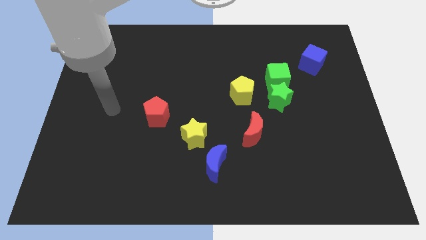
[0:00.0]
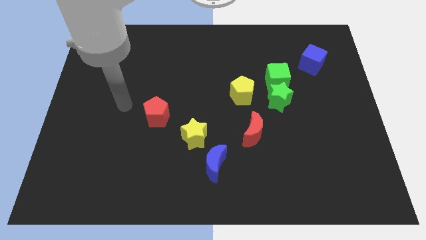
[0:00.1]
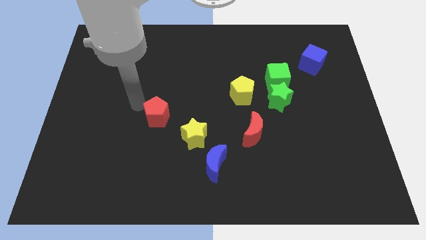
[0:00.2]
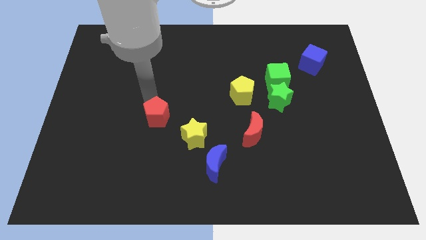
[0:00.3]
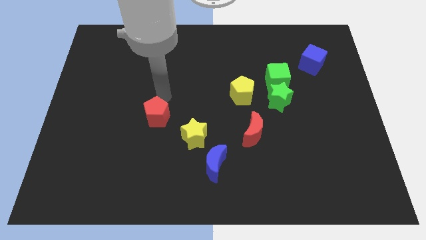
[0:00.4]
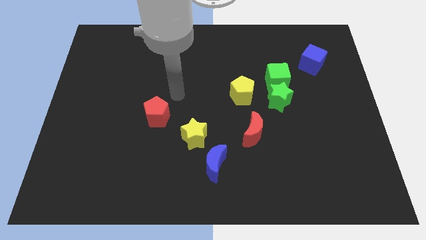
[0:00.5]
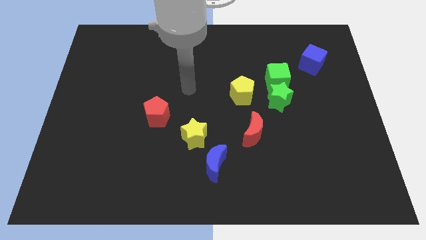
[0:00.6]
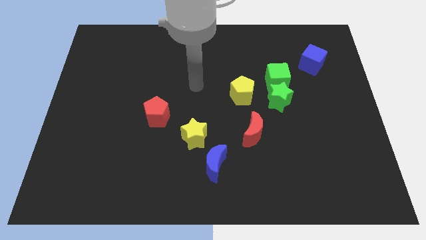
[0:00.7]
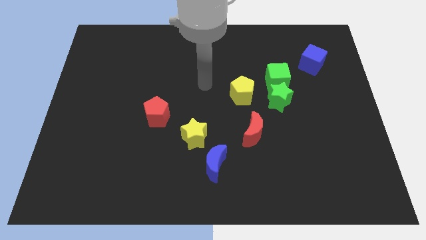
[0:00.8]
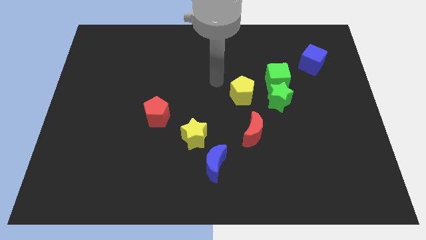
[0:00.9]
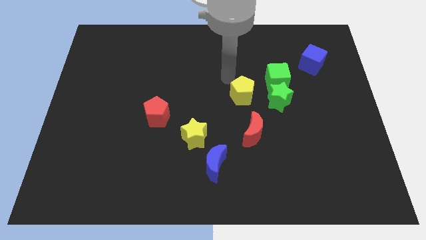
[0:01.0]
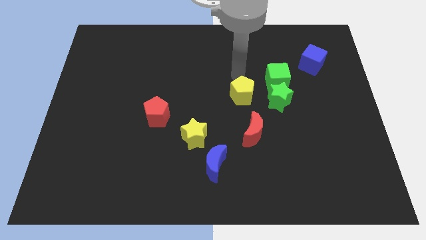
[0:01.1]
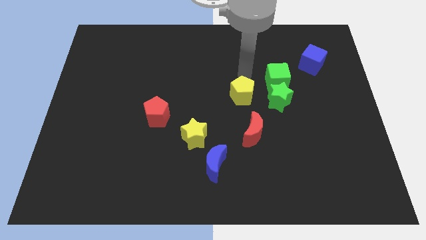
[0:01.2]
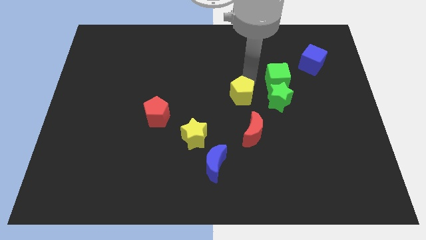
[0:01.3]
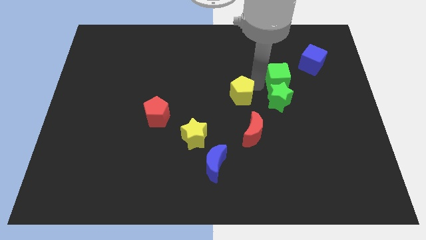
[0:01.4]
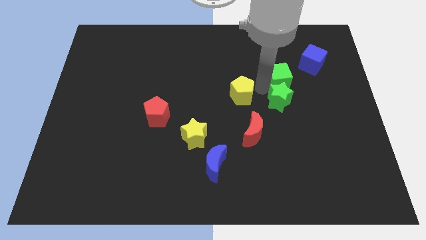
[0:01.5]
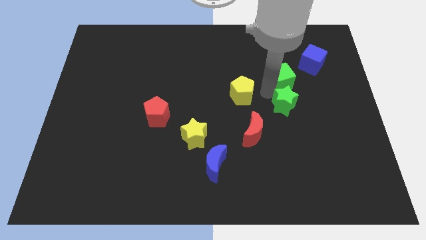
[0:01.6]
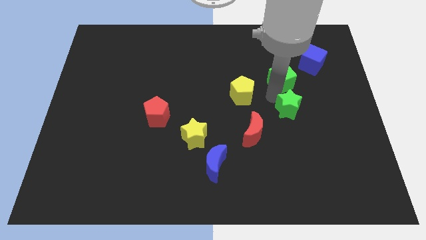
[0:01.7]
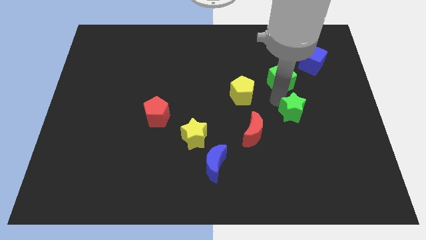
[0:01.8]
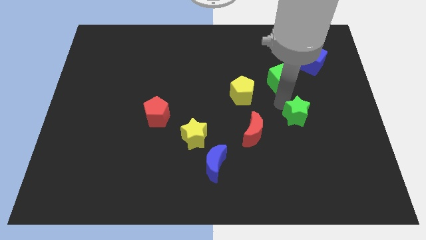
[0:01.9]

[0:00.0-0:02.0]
pull the green star apart from the green cube and yellow pentagon

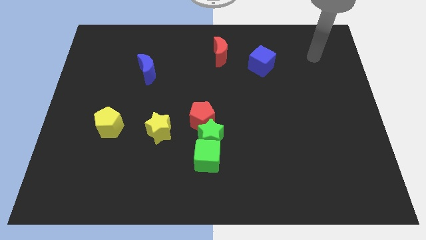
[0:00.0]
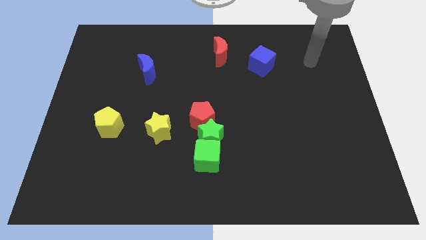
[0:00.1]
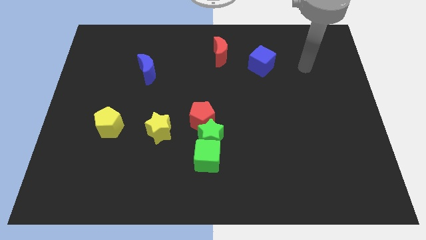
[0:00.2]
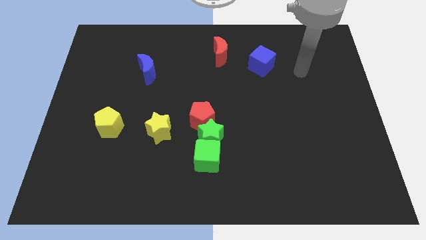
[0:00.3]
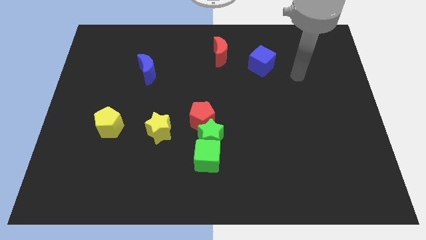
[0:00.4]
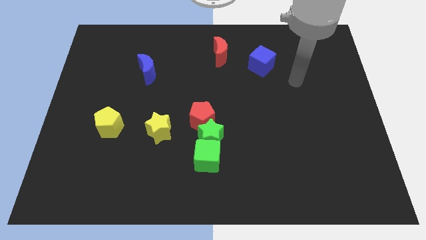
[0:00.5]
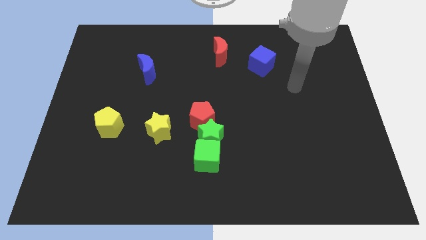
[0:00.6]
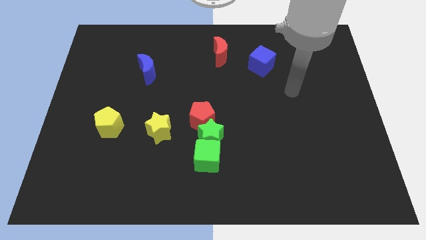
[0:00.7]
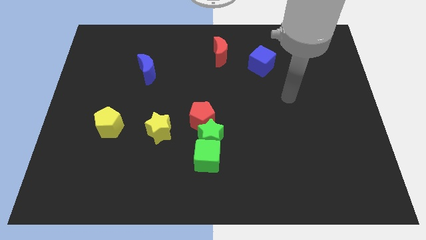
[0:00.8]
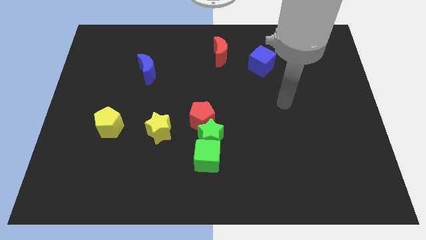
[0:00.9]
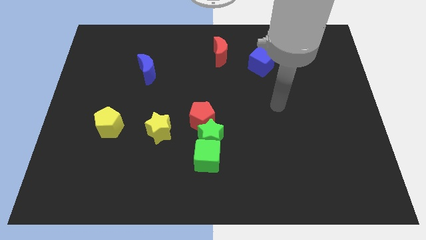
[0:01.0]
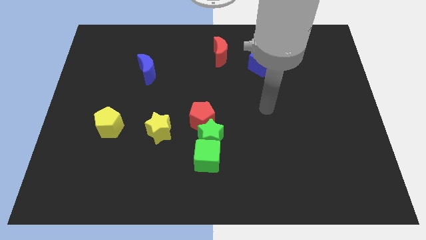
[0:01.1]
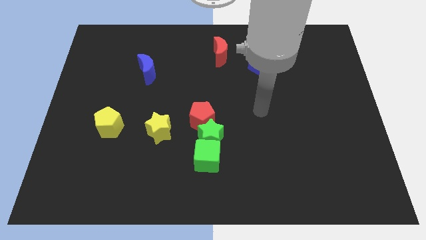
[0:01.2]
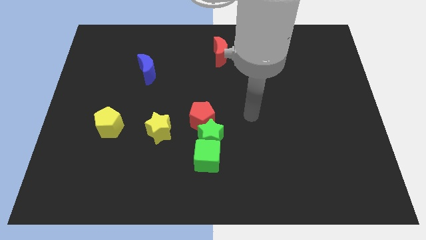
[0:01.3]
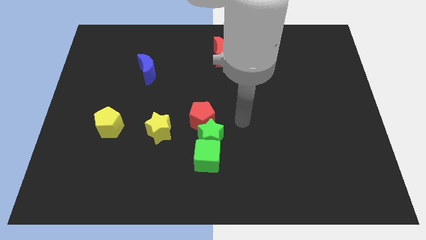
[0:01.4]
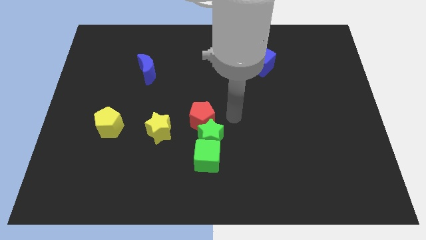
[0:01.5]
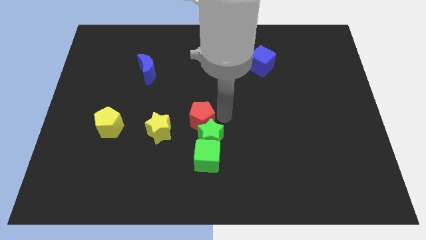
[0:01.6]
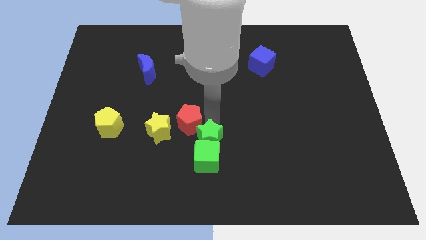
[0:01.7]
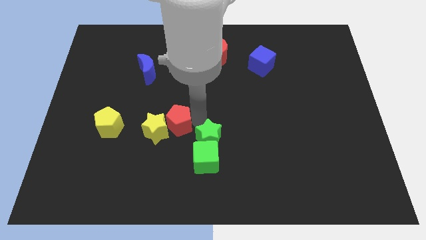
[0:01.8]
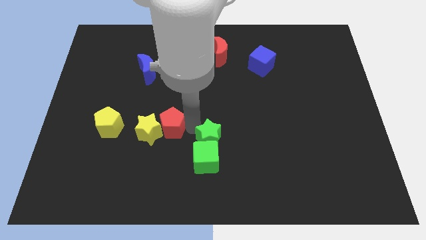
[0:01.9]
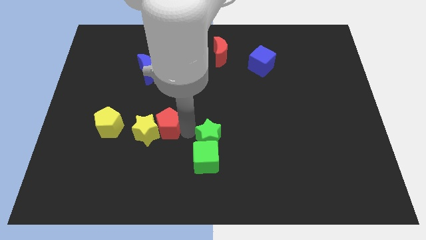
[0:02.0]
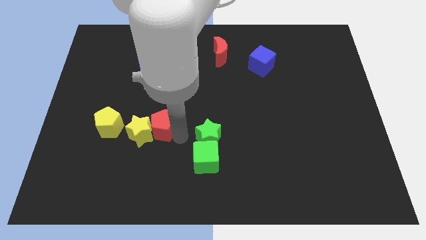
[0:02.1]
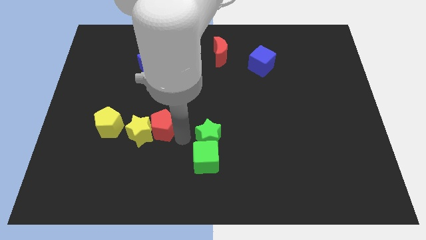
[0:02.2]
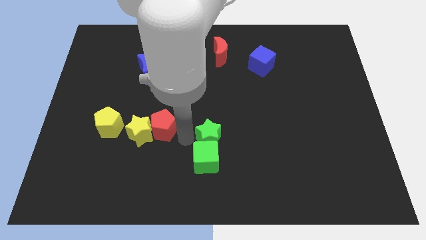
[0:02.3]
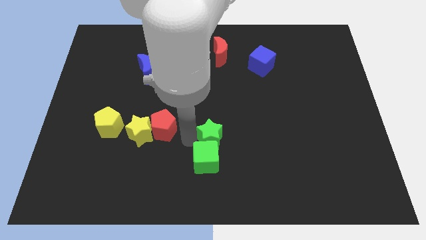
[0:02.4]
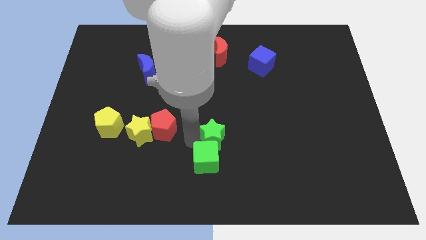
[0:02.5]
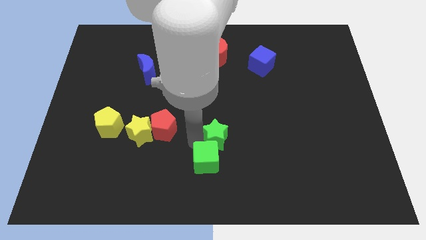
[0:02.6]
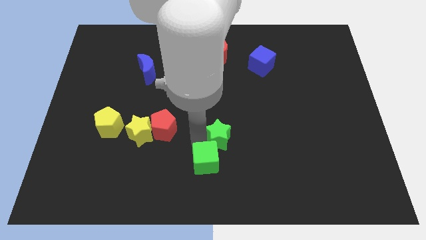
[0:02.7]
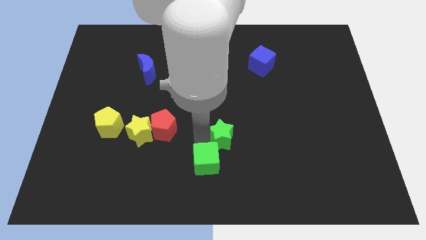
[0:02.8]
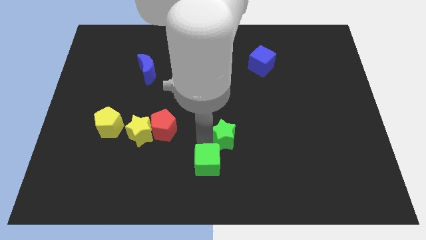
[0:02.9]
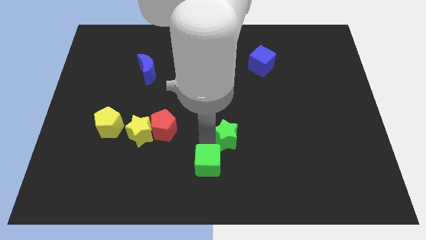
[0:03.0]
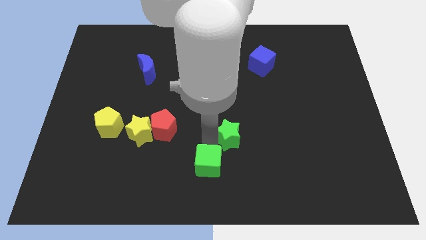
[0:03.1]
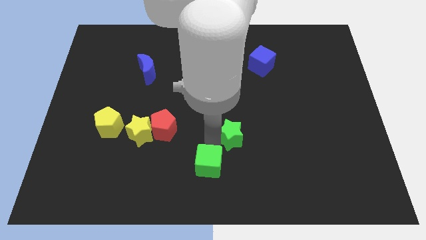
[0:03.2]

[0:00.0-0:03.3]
separate the green star from the green cube and red pentagon

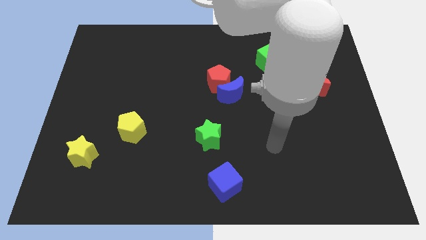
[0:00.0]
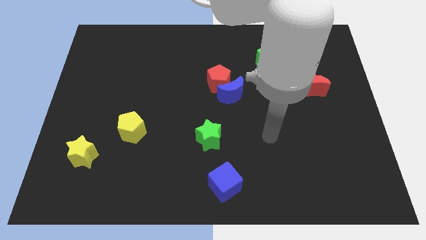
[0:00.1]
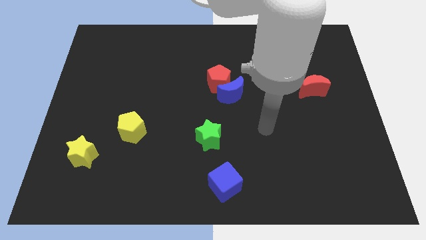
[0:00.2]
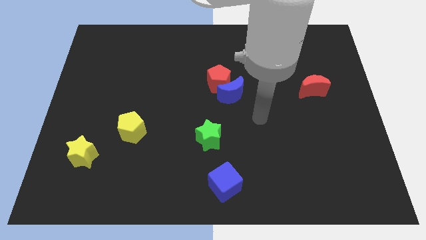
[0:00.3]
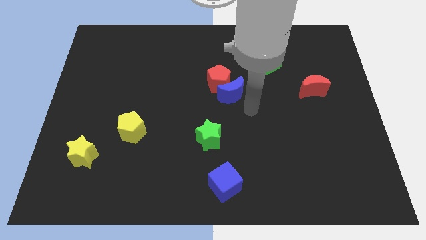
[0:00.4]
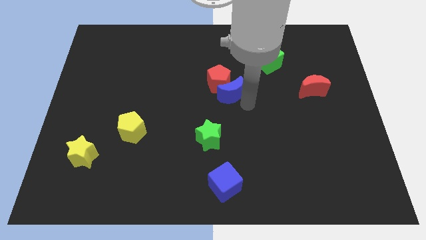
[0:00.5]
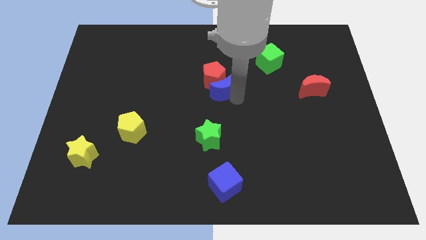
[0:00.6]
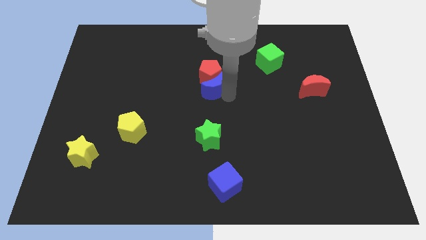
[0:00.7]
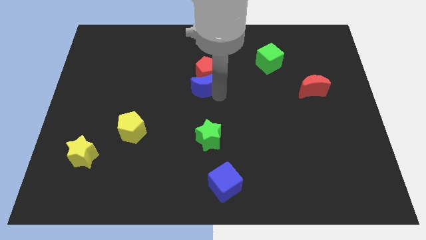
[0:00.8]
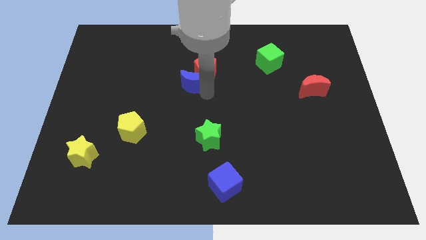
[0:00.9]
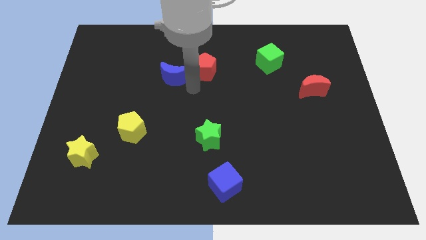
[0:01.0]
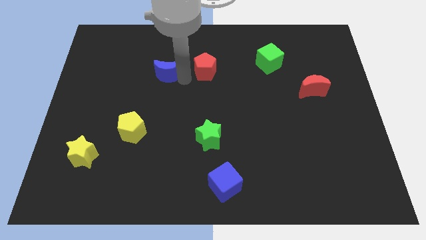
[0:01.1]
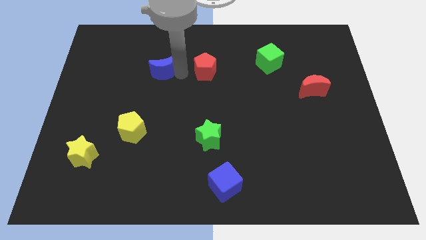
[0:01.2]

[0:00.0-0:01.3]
separate the red pentagon from the blue moon

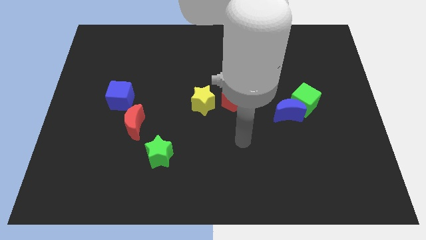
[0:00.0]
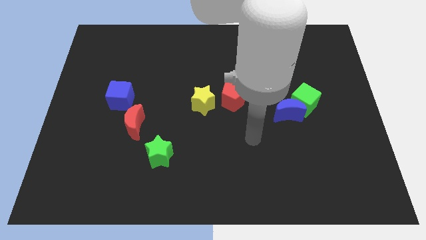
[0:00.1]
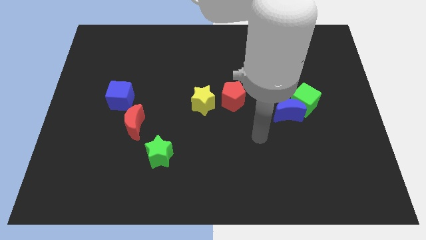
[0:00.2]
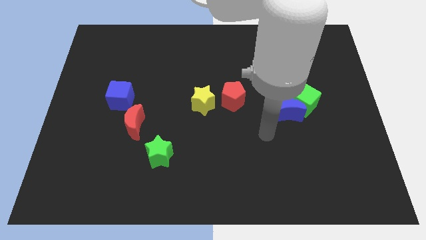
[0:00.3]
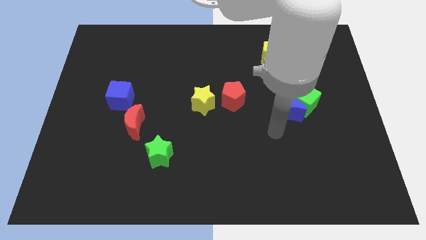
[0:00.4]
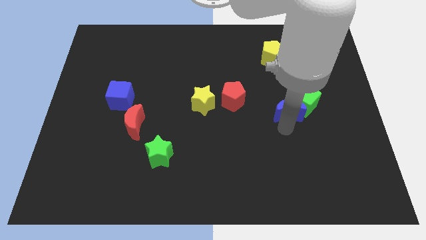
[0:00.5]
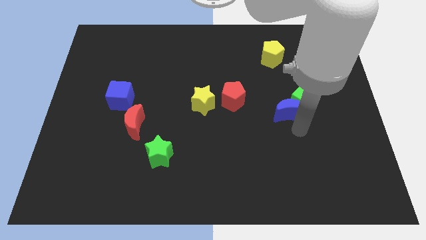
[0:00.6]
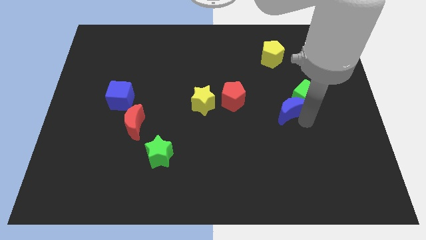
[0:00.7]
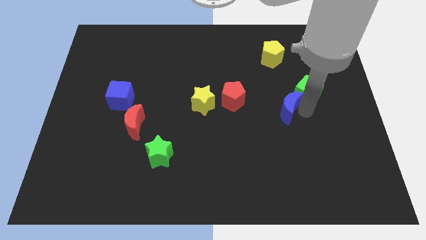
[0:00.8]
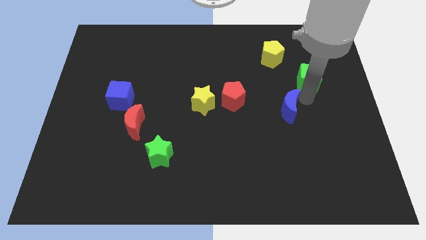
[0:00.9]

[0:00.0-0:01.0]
separate the blue moon from the green cube

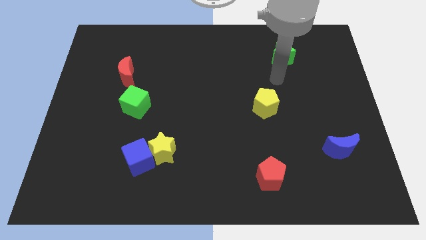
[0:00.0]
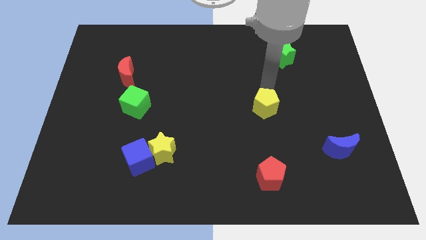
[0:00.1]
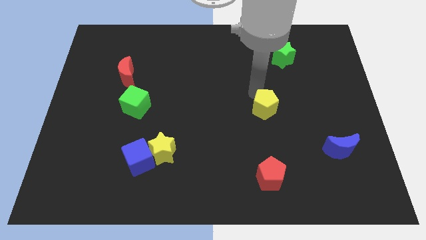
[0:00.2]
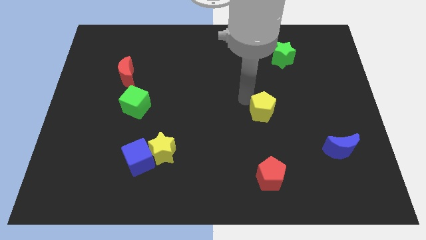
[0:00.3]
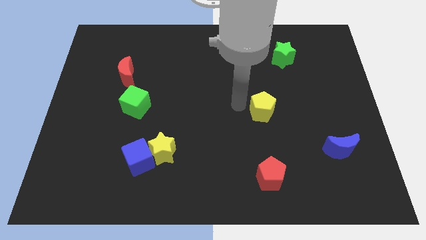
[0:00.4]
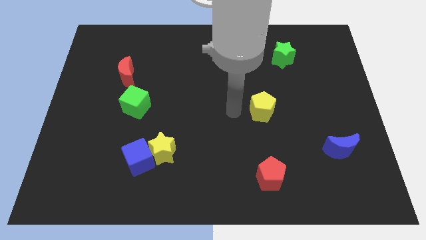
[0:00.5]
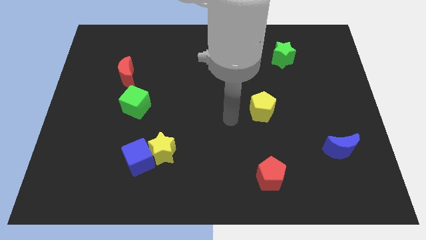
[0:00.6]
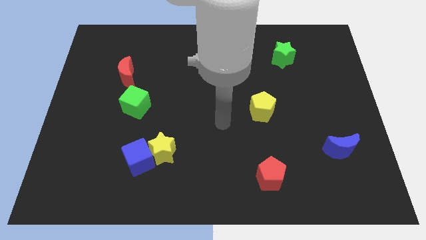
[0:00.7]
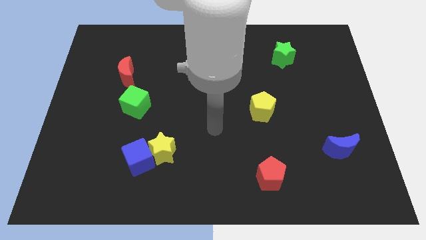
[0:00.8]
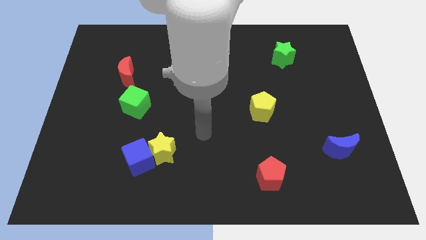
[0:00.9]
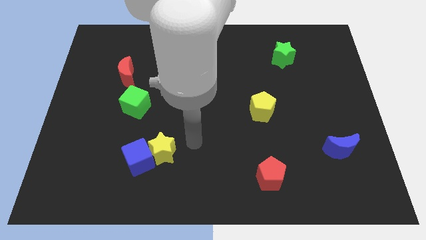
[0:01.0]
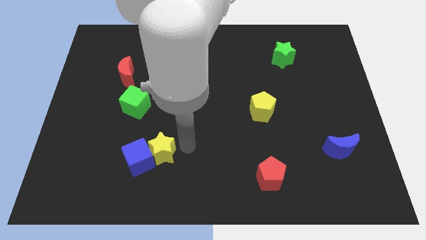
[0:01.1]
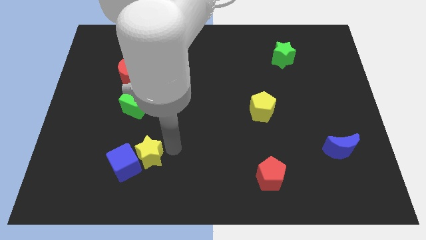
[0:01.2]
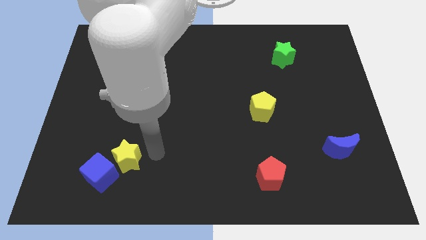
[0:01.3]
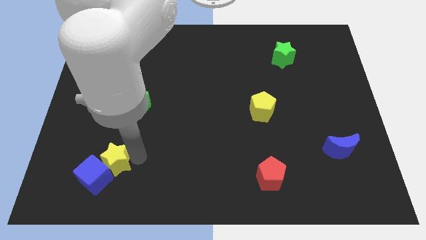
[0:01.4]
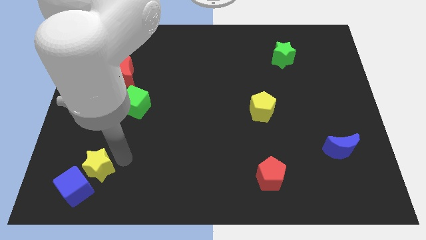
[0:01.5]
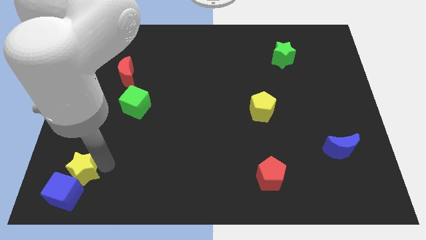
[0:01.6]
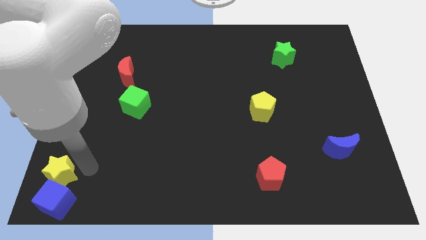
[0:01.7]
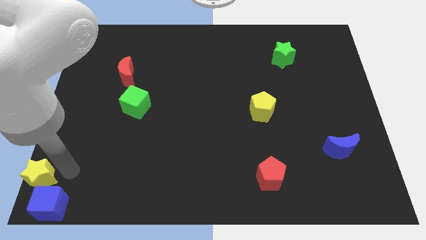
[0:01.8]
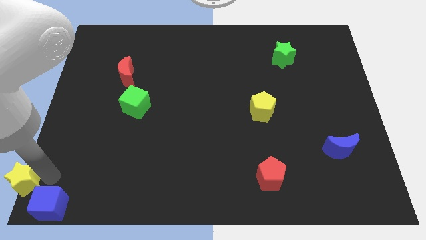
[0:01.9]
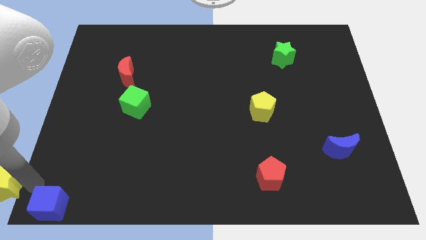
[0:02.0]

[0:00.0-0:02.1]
move the blue cube away from the yellow star
